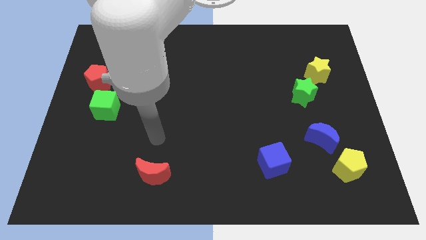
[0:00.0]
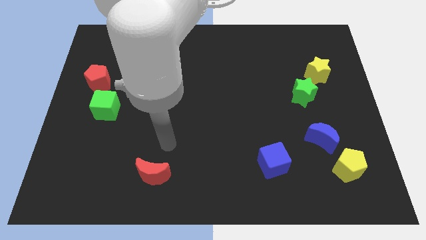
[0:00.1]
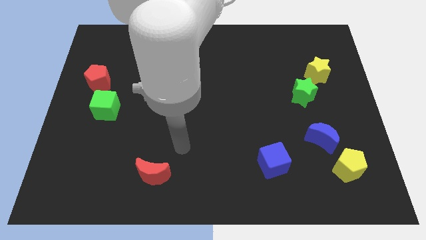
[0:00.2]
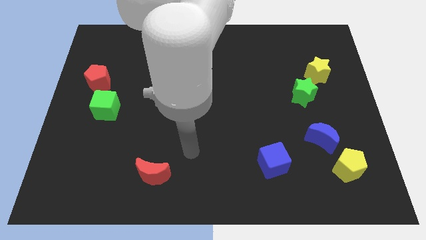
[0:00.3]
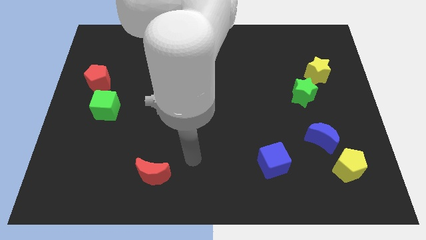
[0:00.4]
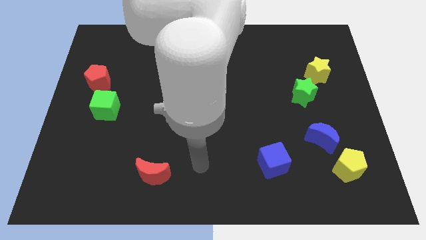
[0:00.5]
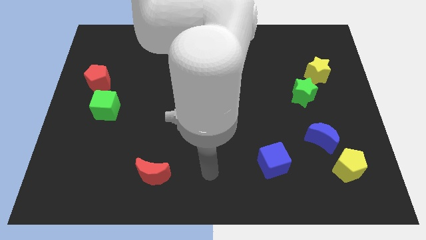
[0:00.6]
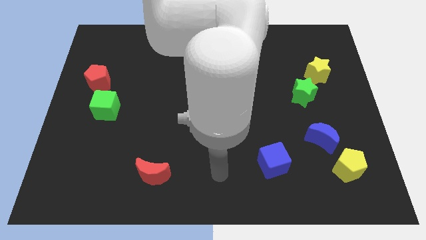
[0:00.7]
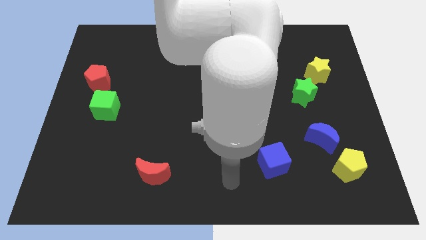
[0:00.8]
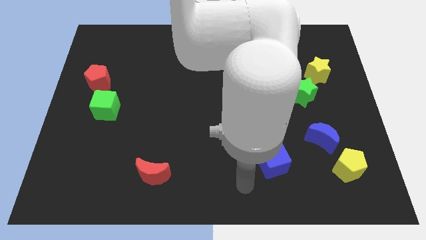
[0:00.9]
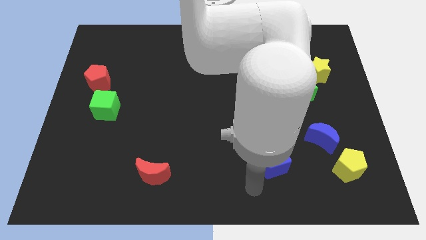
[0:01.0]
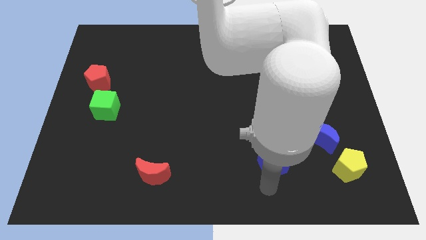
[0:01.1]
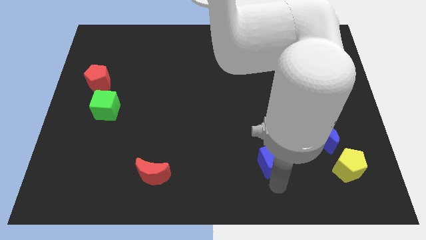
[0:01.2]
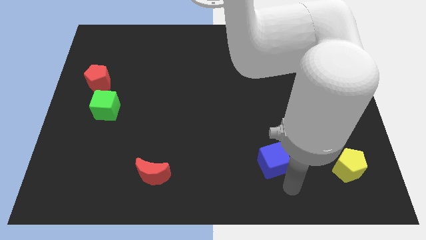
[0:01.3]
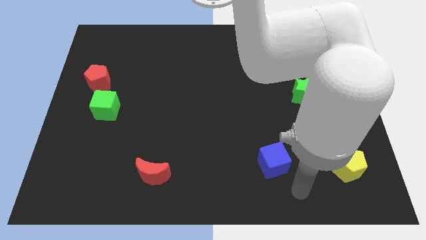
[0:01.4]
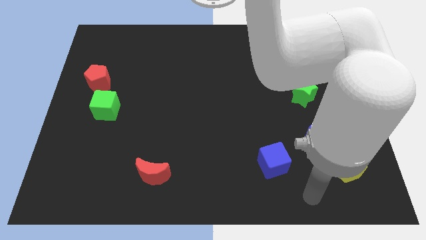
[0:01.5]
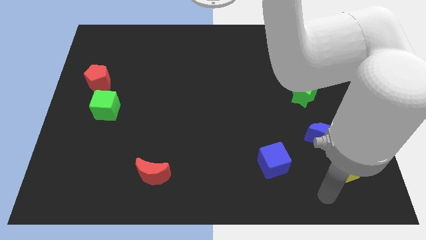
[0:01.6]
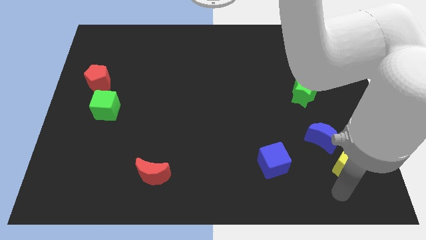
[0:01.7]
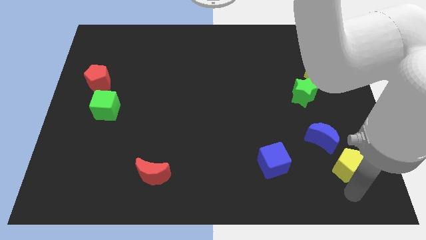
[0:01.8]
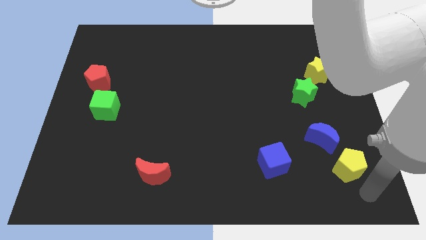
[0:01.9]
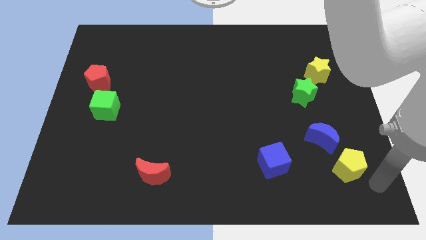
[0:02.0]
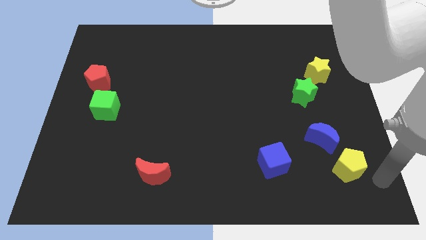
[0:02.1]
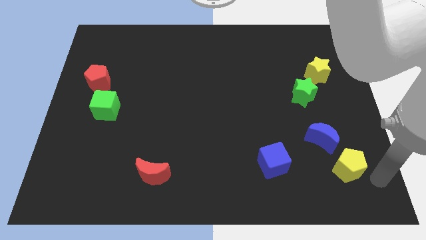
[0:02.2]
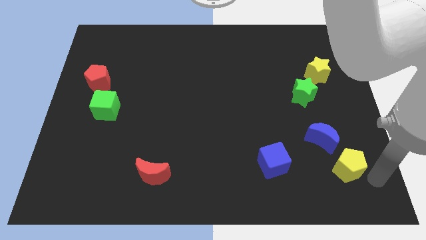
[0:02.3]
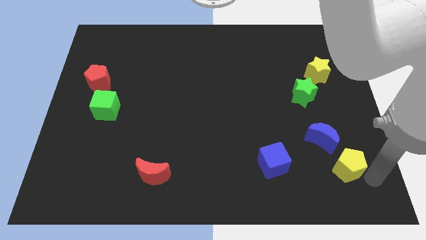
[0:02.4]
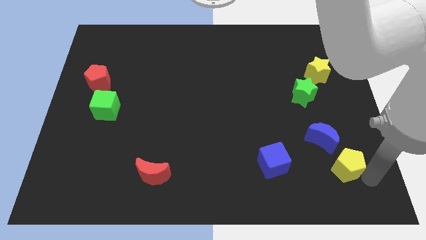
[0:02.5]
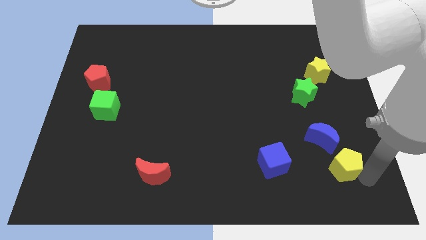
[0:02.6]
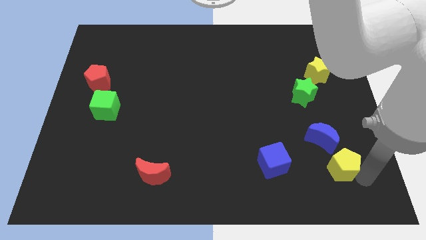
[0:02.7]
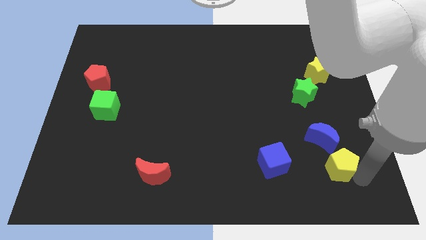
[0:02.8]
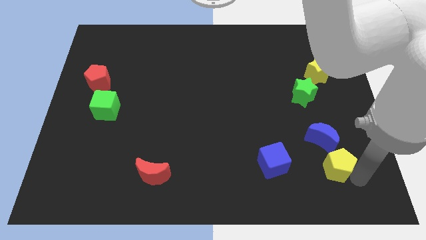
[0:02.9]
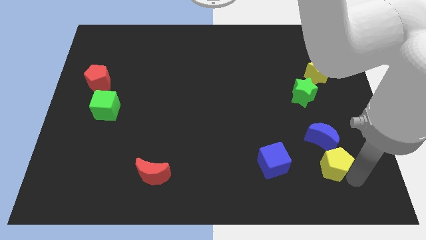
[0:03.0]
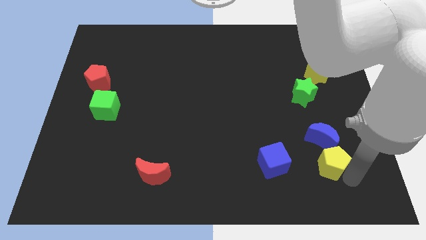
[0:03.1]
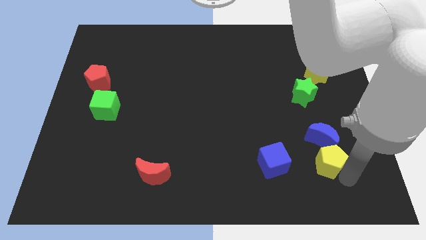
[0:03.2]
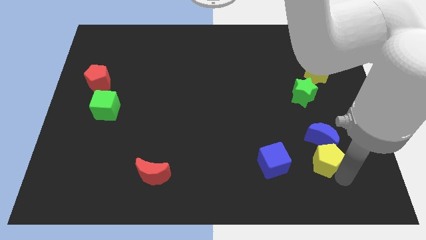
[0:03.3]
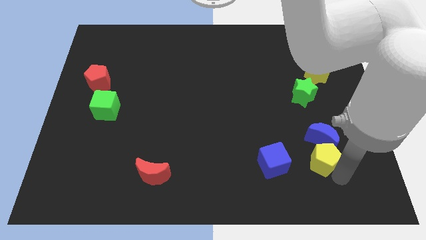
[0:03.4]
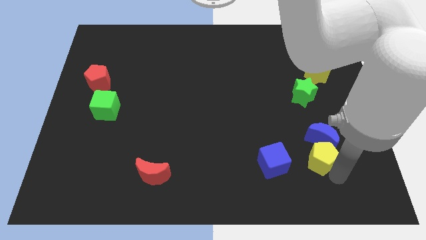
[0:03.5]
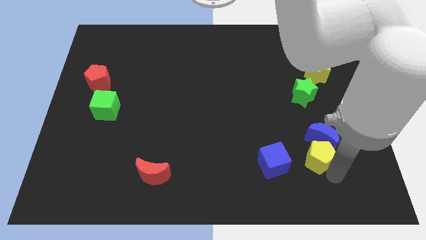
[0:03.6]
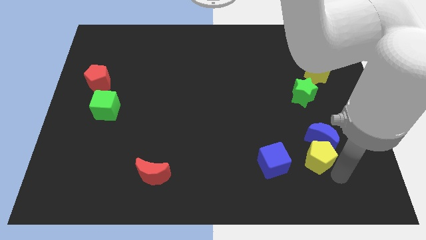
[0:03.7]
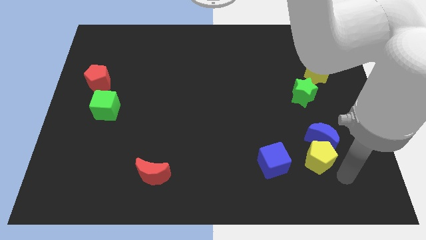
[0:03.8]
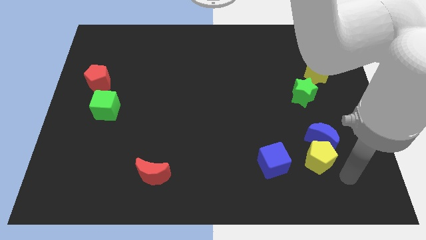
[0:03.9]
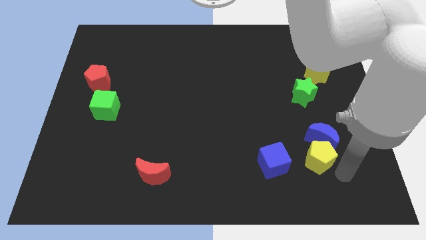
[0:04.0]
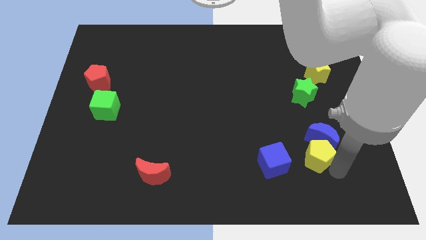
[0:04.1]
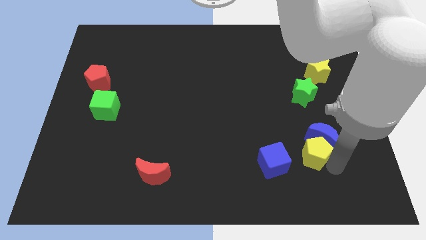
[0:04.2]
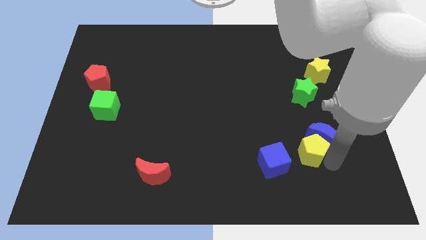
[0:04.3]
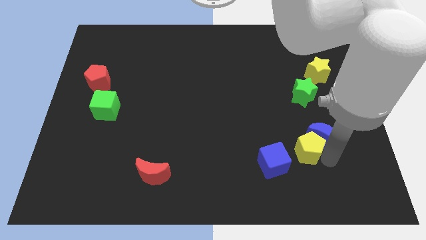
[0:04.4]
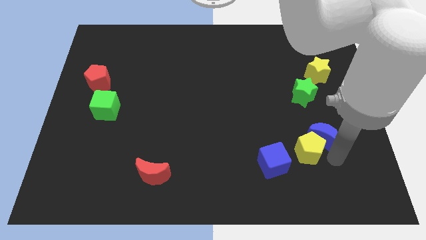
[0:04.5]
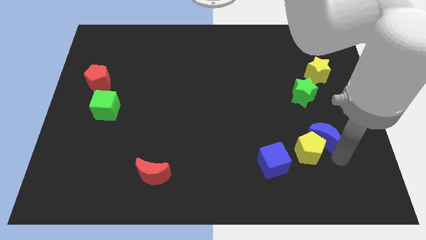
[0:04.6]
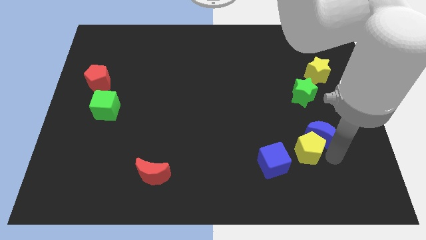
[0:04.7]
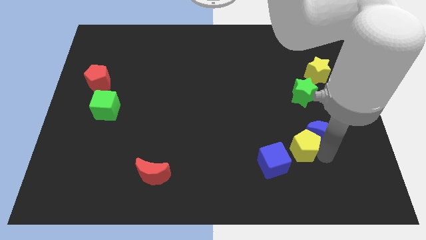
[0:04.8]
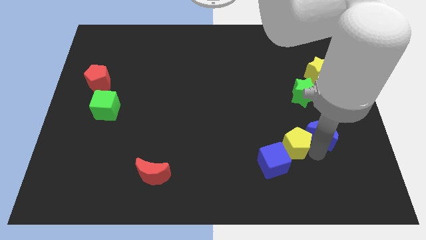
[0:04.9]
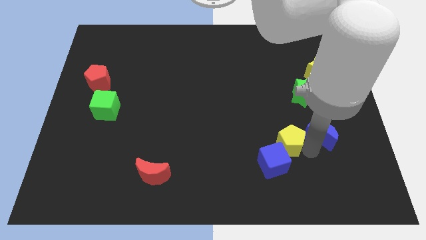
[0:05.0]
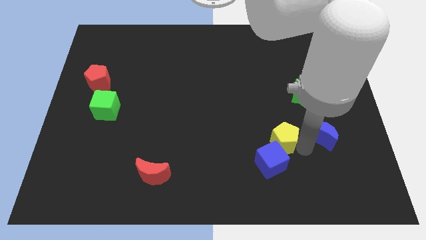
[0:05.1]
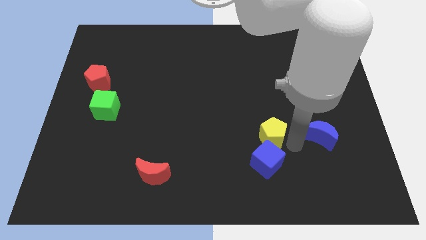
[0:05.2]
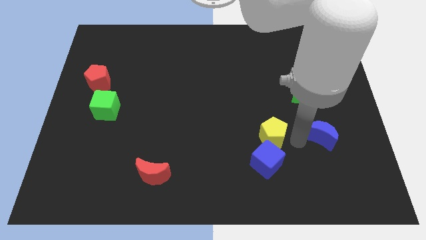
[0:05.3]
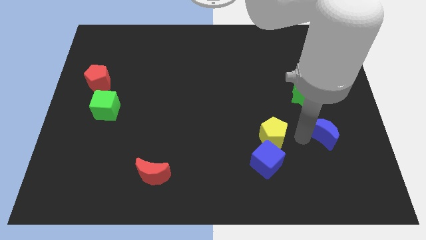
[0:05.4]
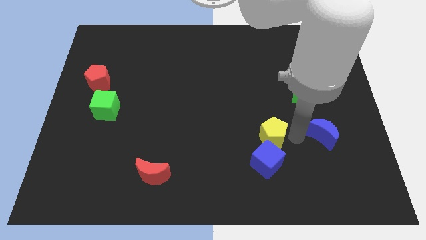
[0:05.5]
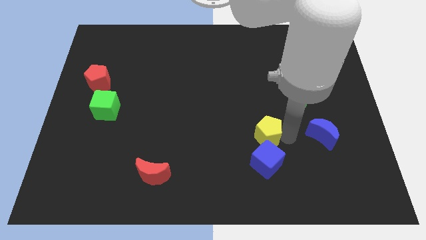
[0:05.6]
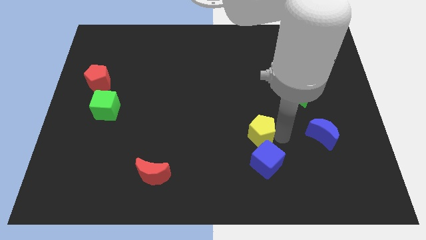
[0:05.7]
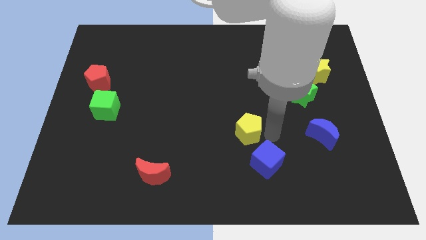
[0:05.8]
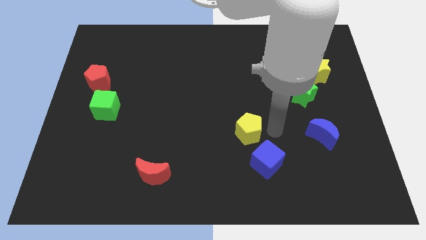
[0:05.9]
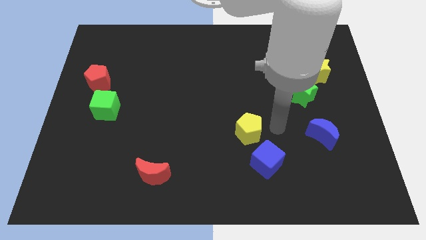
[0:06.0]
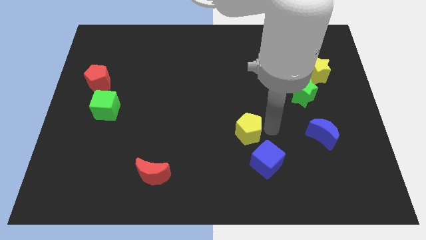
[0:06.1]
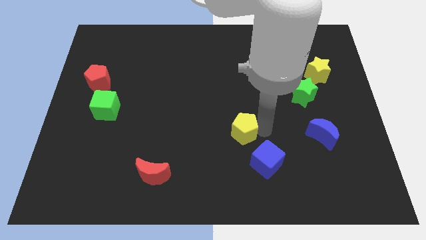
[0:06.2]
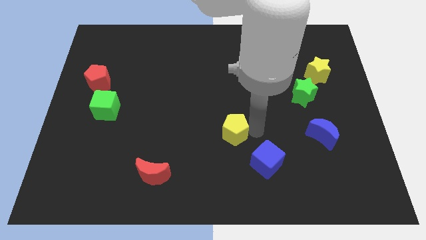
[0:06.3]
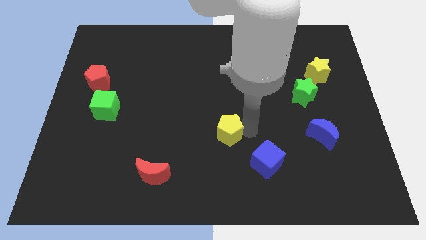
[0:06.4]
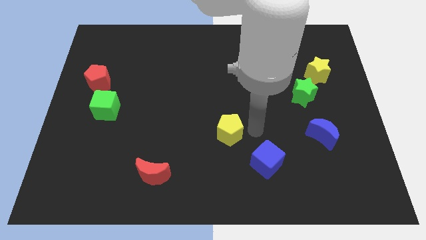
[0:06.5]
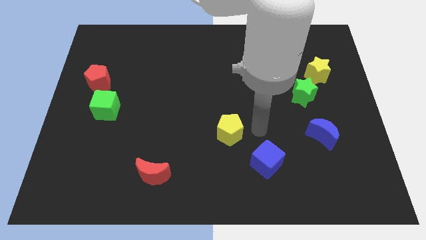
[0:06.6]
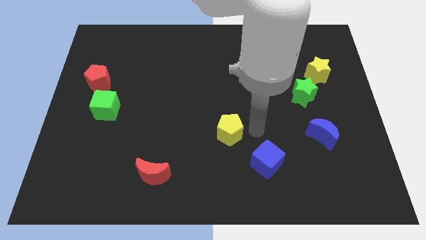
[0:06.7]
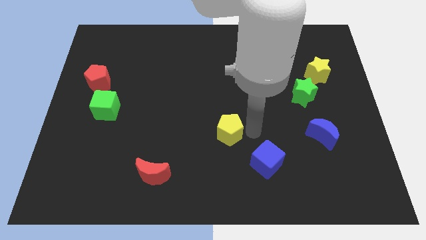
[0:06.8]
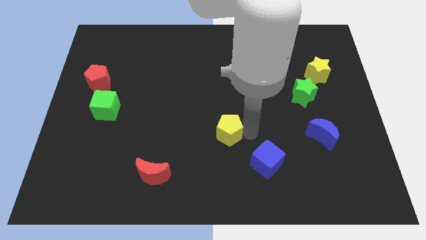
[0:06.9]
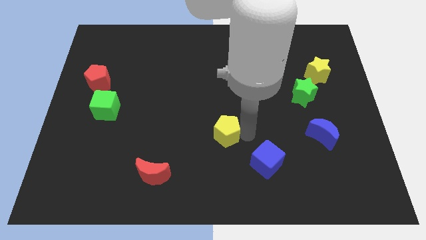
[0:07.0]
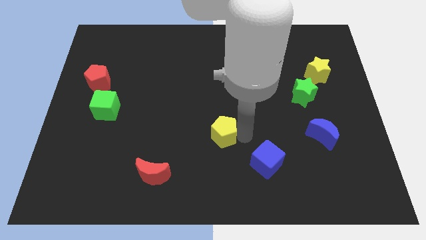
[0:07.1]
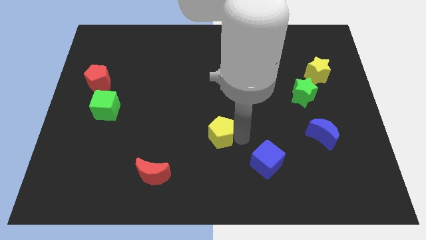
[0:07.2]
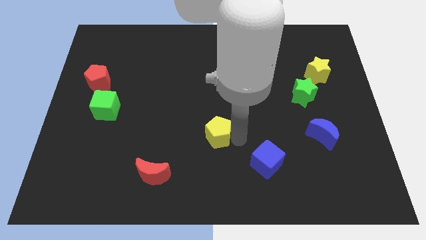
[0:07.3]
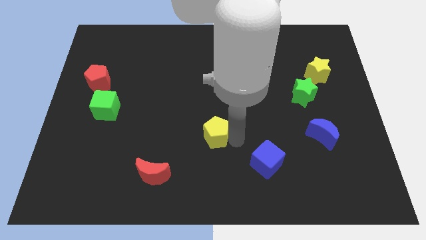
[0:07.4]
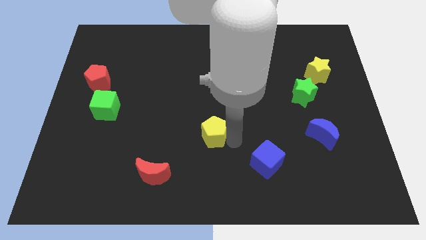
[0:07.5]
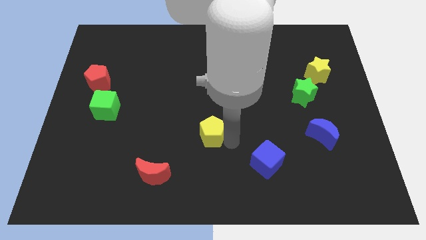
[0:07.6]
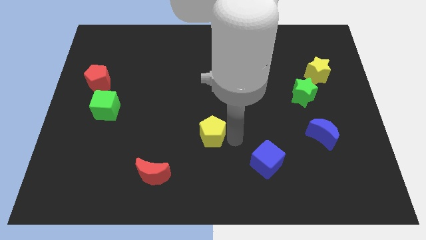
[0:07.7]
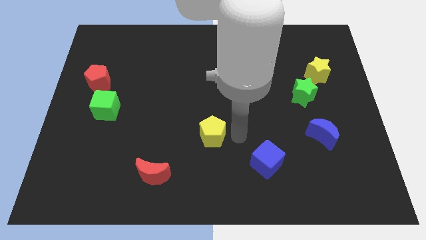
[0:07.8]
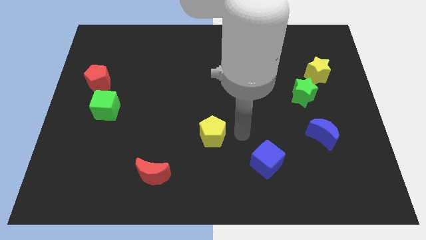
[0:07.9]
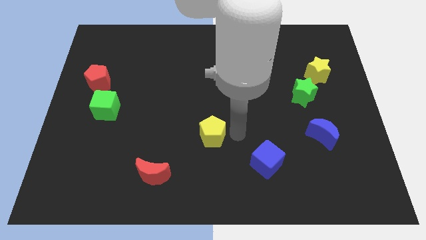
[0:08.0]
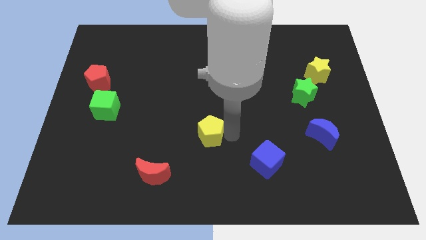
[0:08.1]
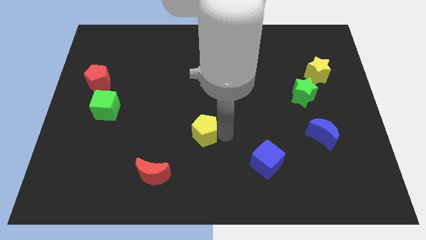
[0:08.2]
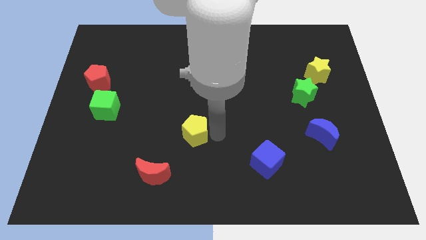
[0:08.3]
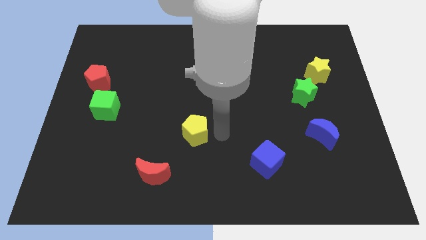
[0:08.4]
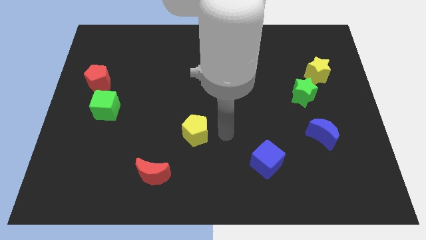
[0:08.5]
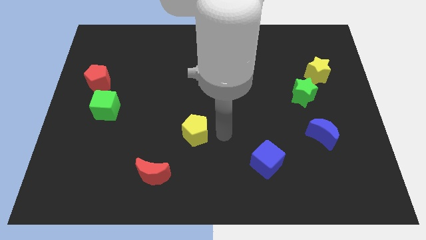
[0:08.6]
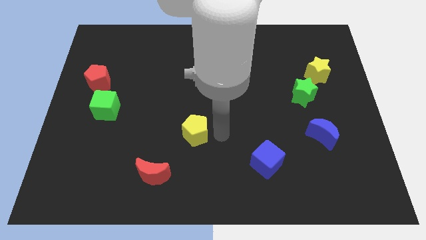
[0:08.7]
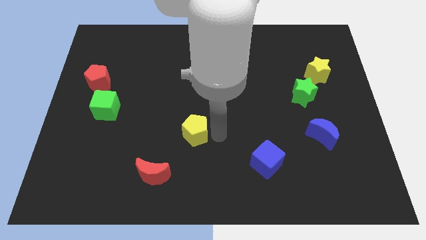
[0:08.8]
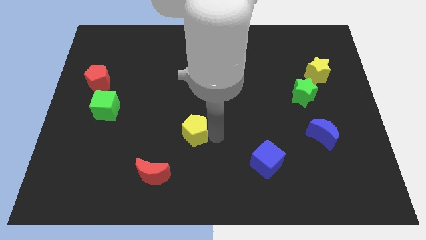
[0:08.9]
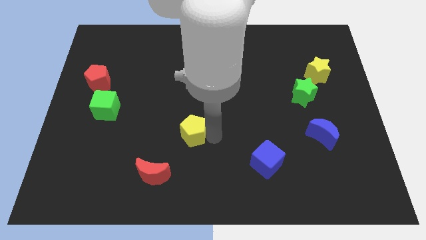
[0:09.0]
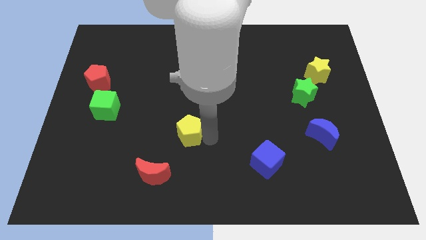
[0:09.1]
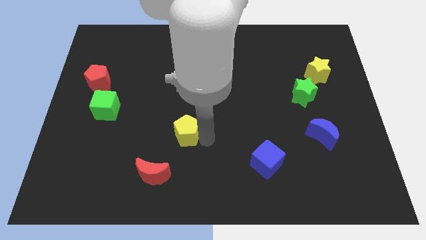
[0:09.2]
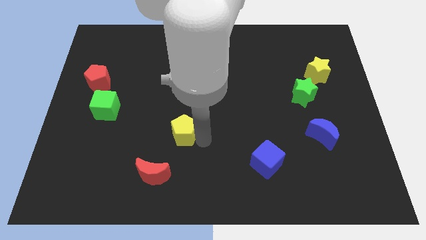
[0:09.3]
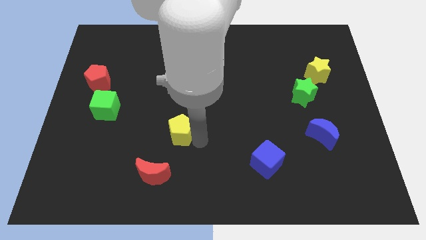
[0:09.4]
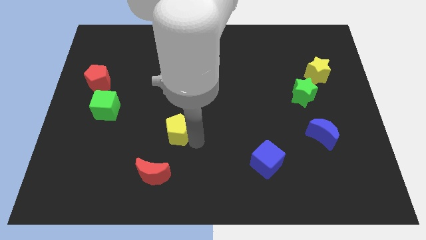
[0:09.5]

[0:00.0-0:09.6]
put the yellow pentagon above the red moon
